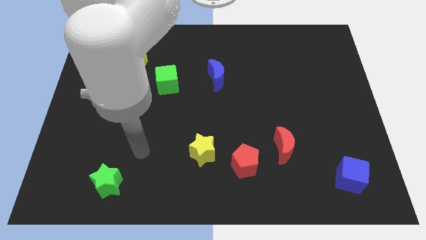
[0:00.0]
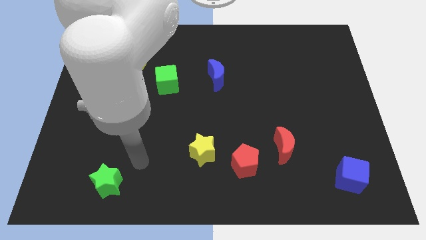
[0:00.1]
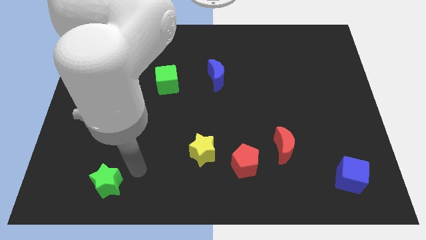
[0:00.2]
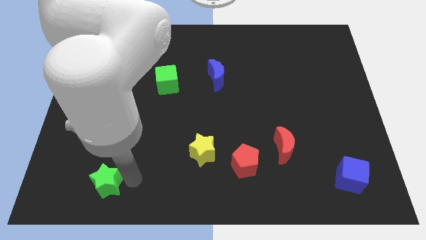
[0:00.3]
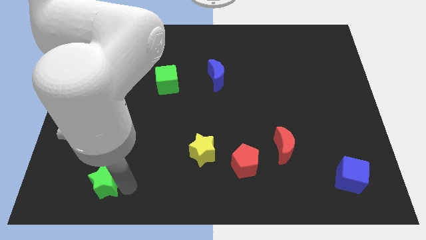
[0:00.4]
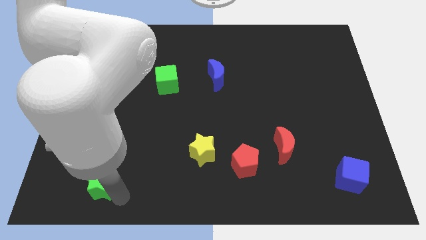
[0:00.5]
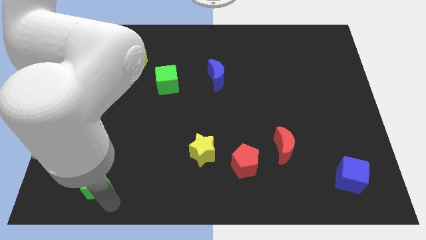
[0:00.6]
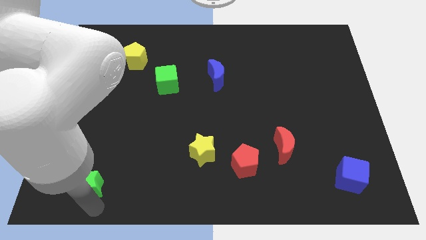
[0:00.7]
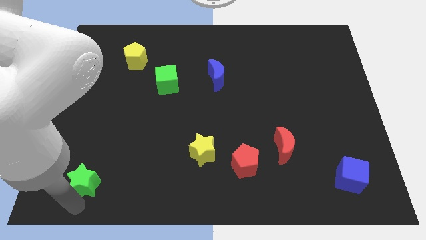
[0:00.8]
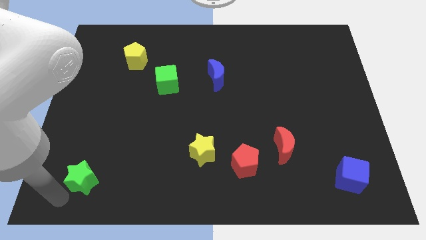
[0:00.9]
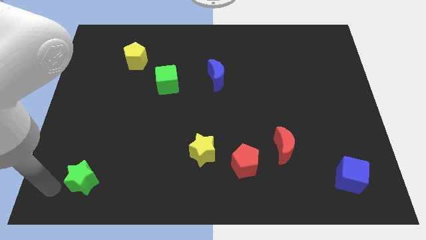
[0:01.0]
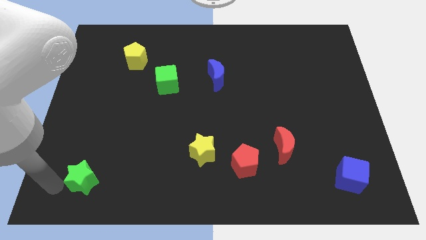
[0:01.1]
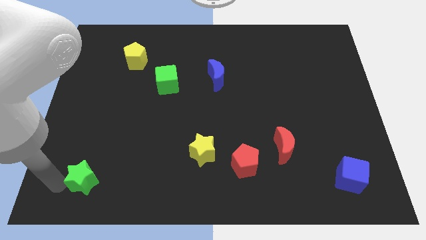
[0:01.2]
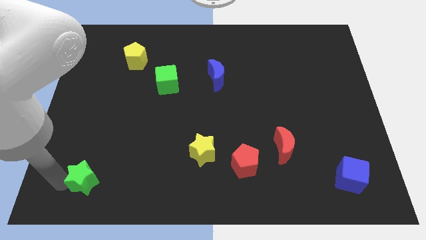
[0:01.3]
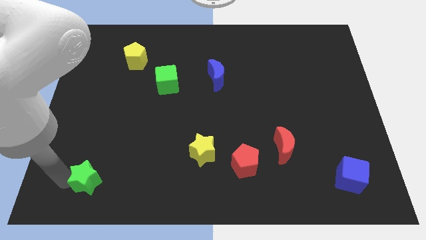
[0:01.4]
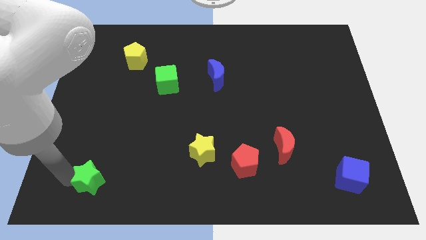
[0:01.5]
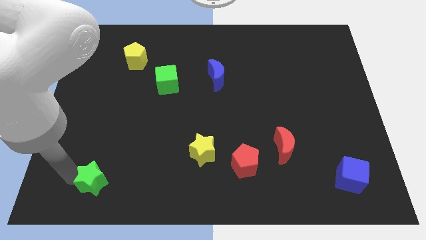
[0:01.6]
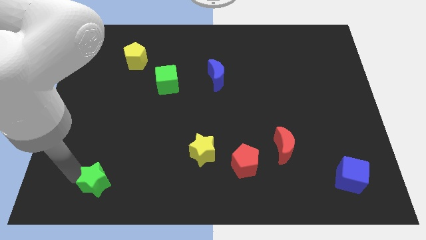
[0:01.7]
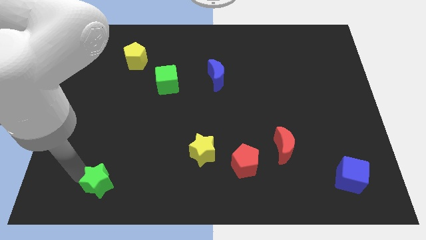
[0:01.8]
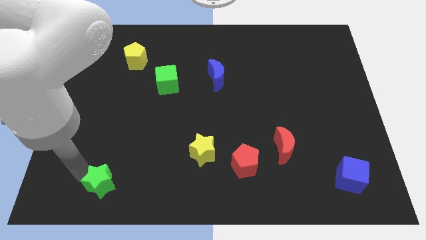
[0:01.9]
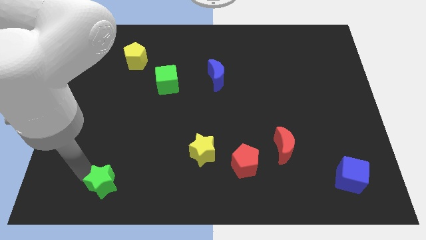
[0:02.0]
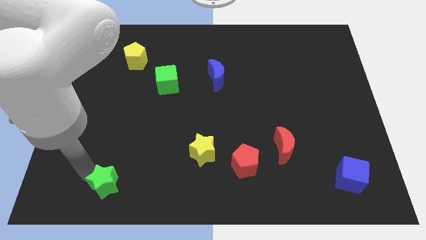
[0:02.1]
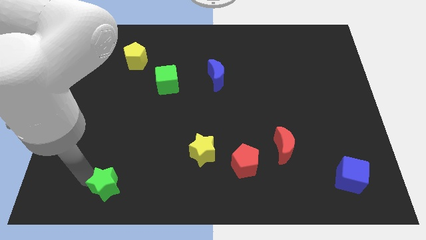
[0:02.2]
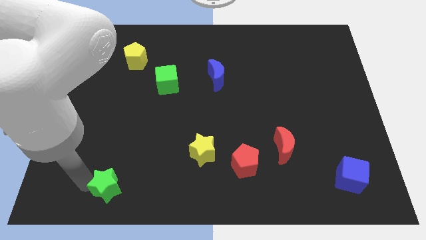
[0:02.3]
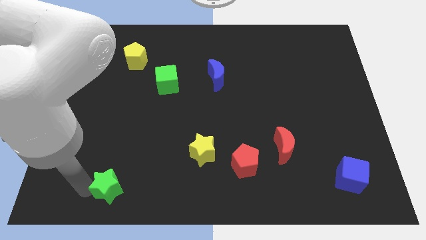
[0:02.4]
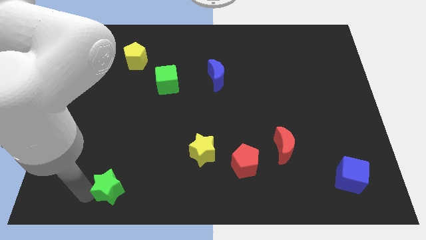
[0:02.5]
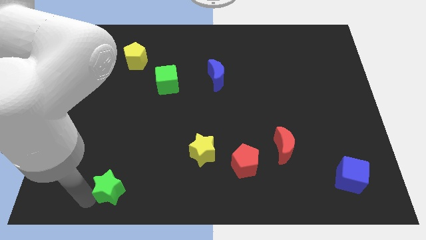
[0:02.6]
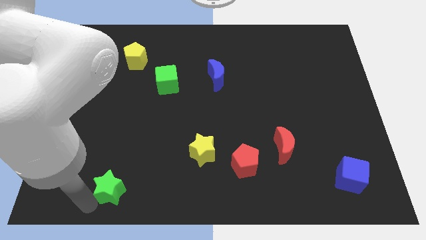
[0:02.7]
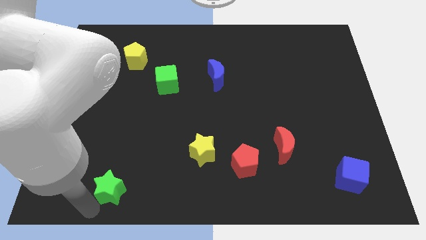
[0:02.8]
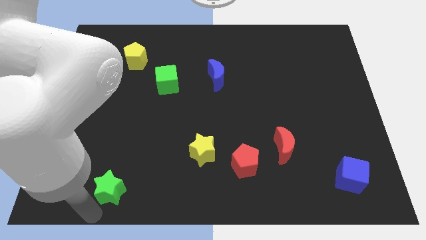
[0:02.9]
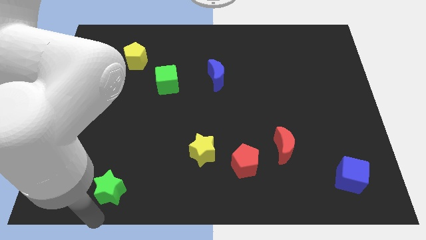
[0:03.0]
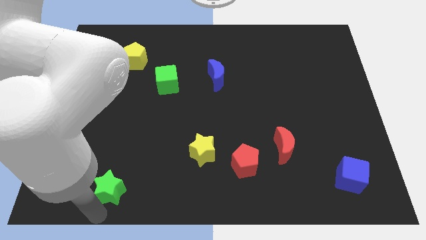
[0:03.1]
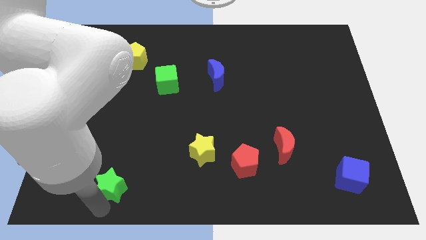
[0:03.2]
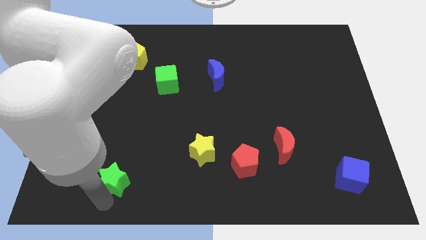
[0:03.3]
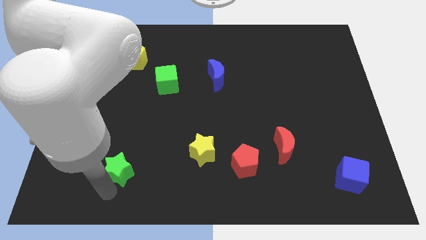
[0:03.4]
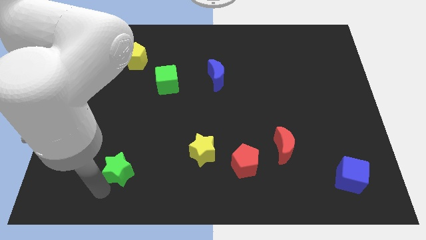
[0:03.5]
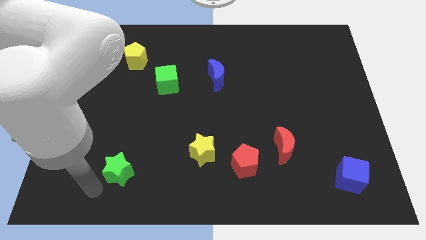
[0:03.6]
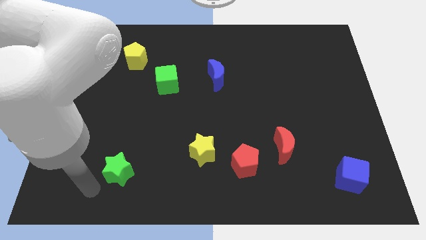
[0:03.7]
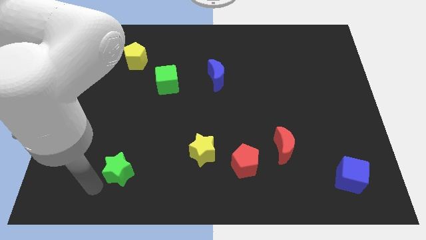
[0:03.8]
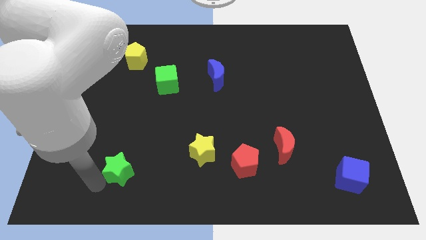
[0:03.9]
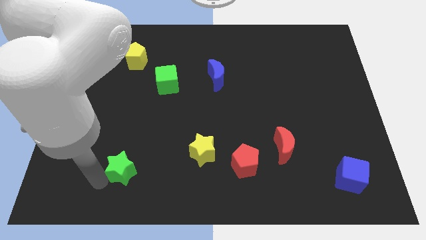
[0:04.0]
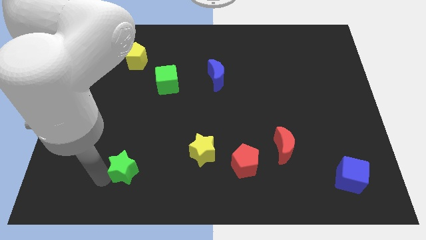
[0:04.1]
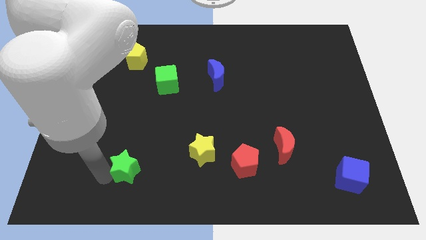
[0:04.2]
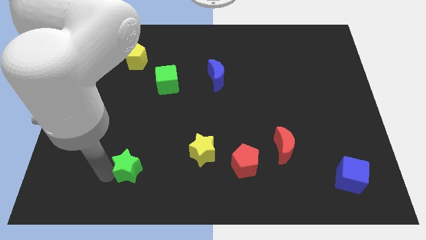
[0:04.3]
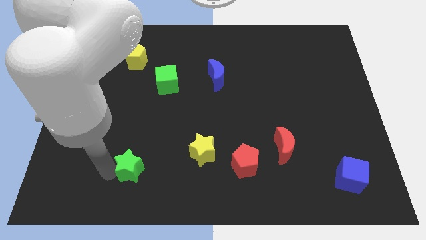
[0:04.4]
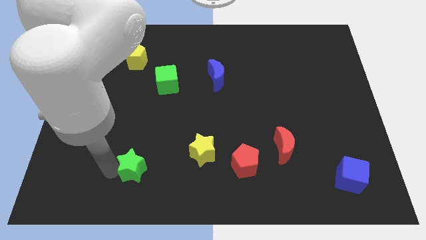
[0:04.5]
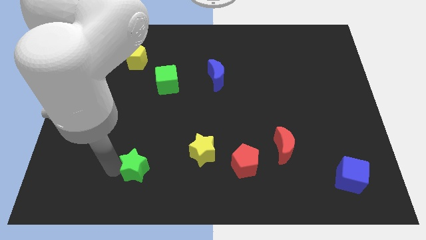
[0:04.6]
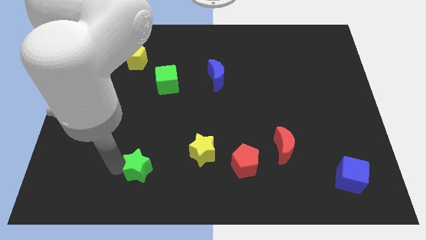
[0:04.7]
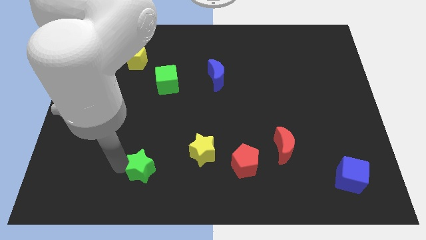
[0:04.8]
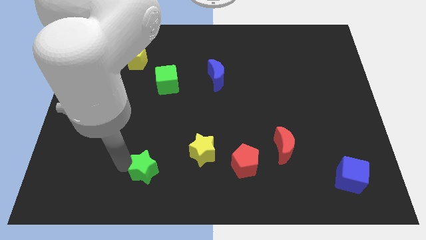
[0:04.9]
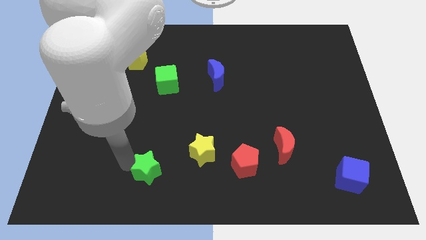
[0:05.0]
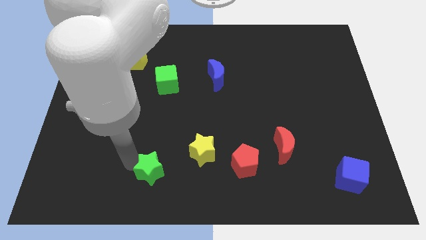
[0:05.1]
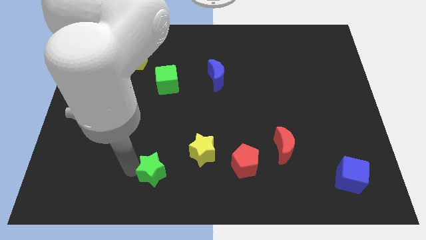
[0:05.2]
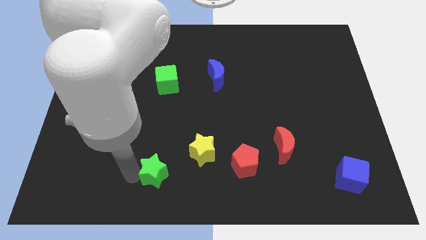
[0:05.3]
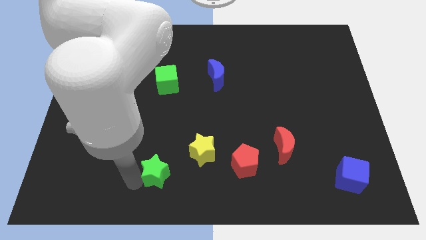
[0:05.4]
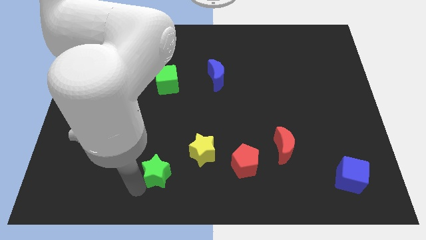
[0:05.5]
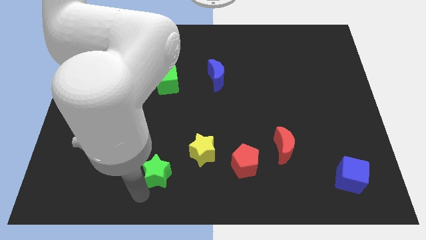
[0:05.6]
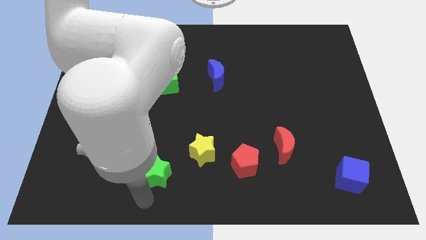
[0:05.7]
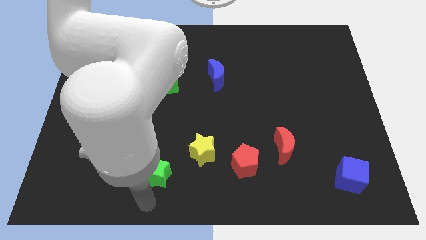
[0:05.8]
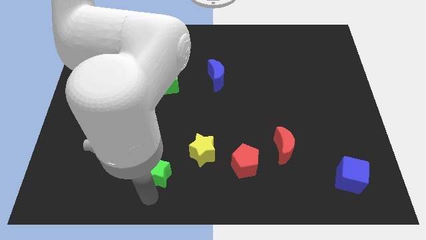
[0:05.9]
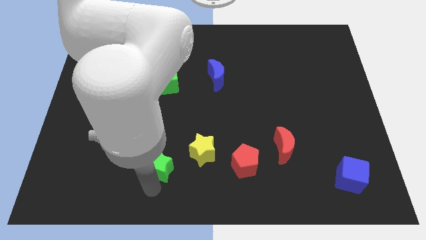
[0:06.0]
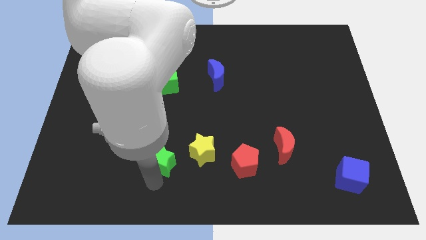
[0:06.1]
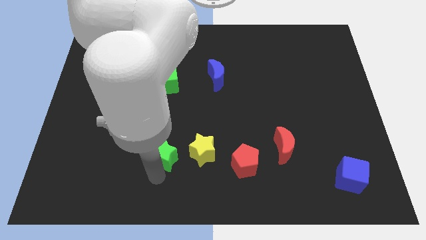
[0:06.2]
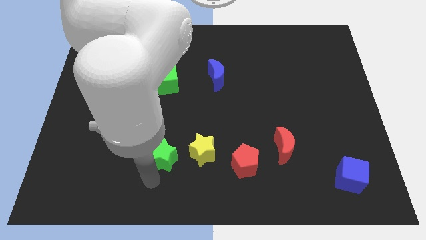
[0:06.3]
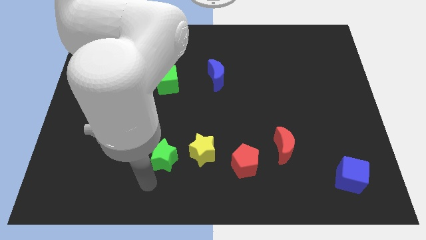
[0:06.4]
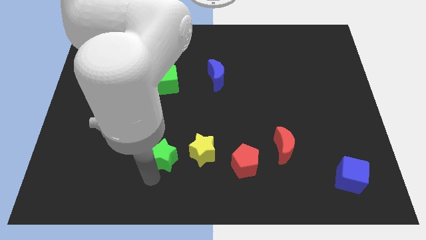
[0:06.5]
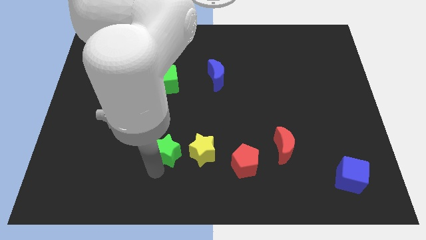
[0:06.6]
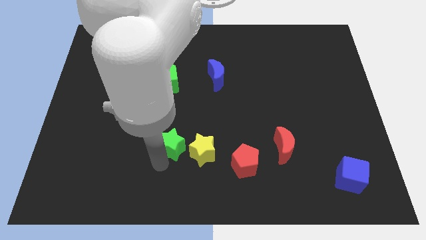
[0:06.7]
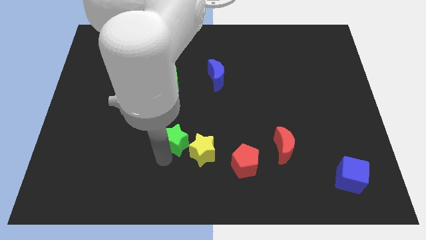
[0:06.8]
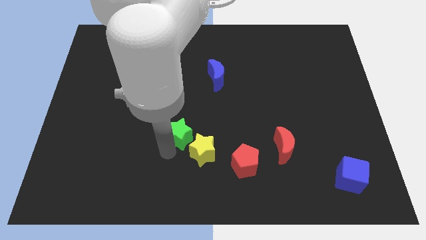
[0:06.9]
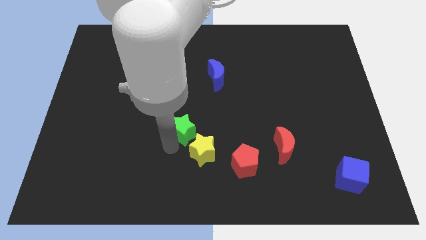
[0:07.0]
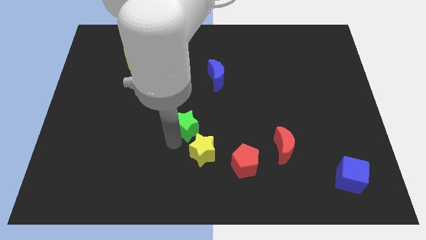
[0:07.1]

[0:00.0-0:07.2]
slide the green star up and right diagonally

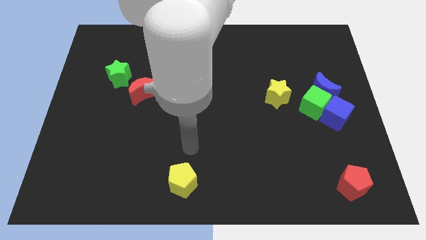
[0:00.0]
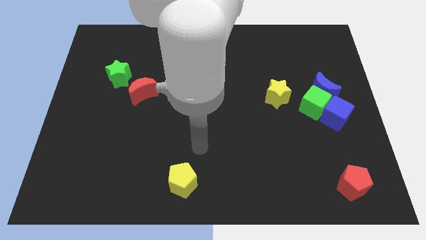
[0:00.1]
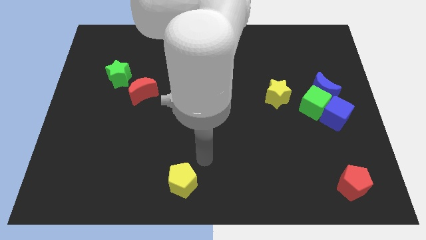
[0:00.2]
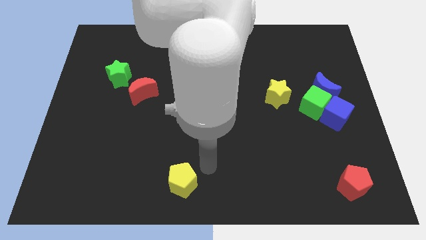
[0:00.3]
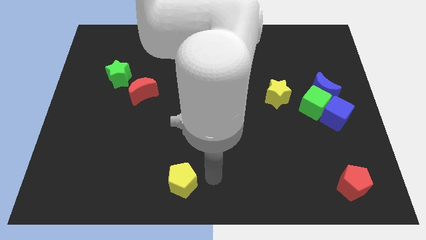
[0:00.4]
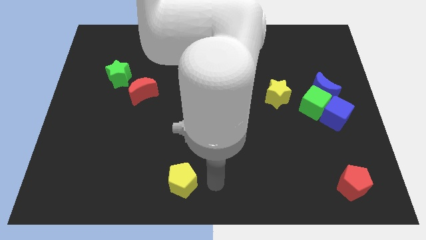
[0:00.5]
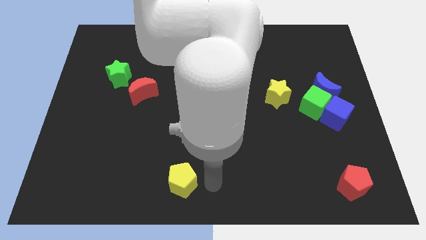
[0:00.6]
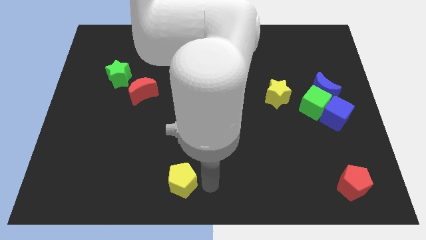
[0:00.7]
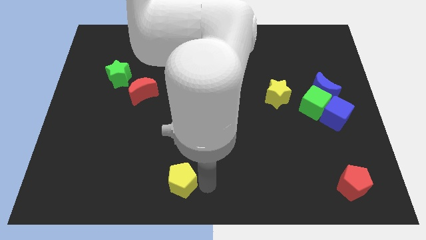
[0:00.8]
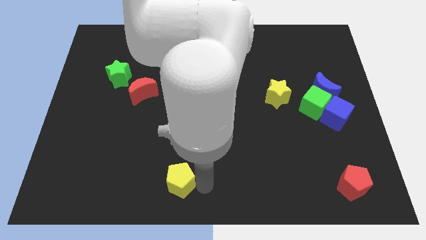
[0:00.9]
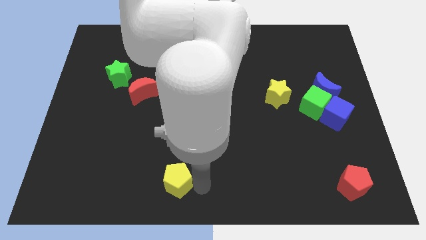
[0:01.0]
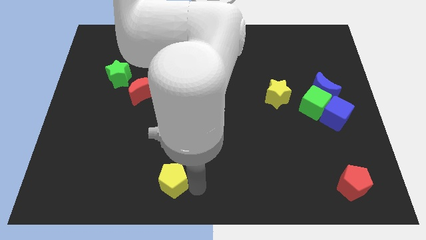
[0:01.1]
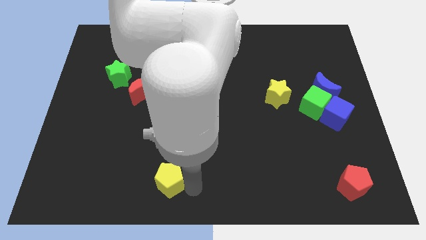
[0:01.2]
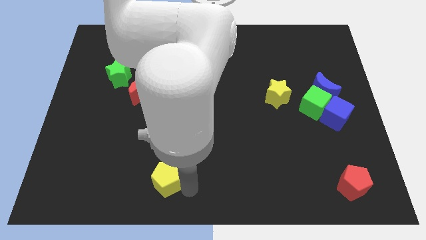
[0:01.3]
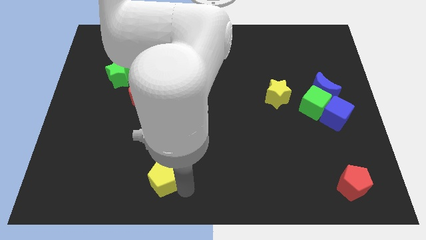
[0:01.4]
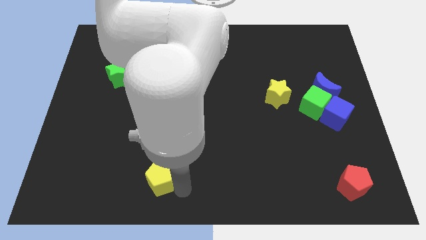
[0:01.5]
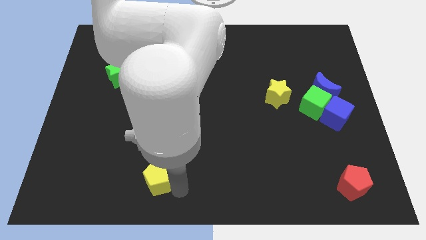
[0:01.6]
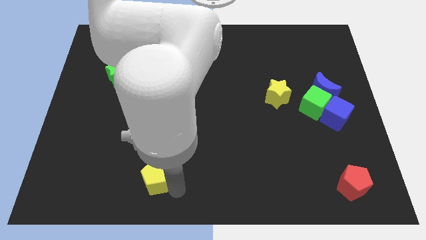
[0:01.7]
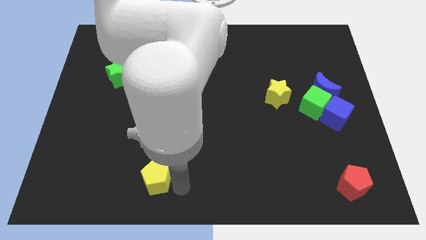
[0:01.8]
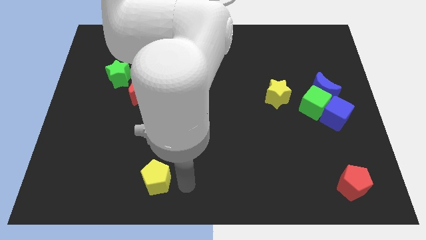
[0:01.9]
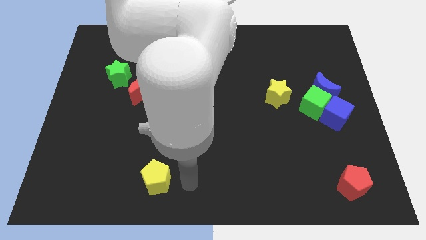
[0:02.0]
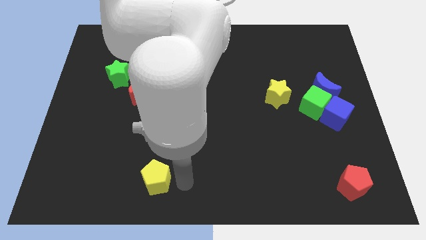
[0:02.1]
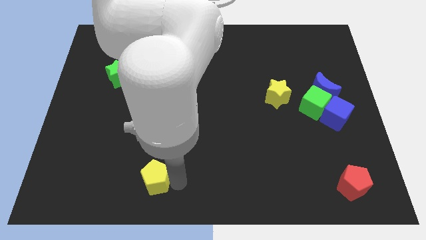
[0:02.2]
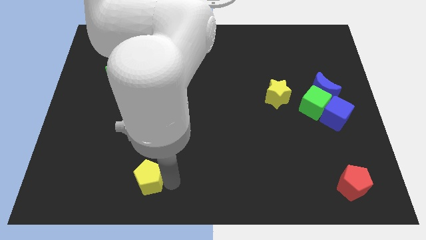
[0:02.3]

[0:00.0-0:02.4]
push the yellow pentagon left a little
